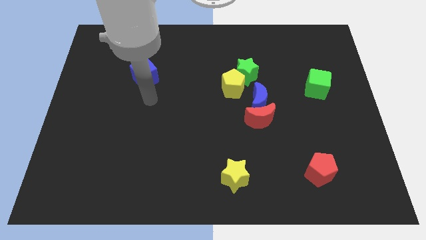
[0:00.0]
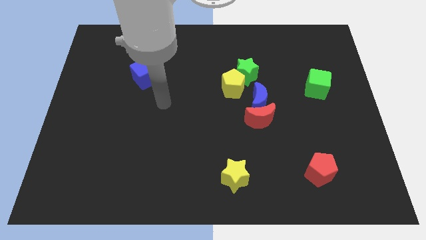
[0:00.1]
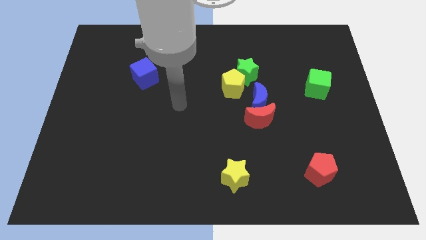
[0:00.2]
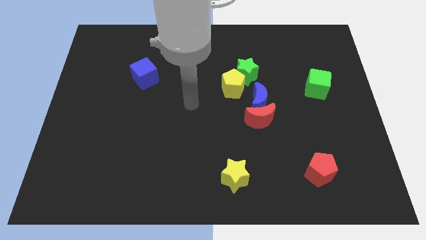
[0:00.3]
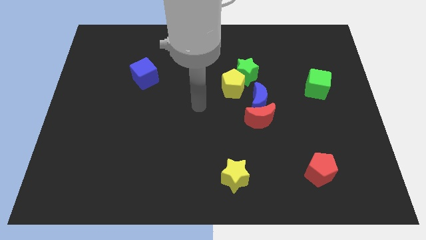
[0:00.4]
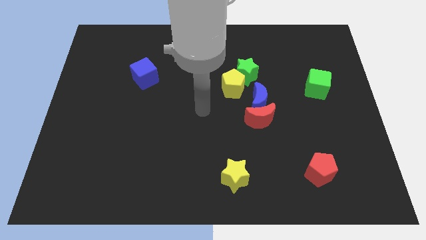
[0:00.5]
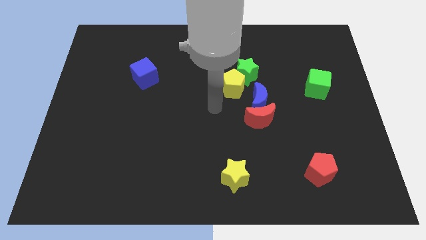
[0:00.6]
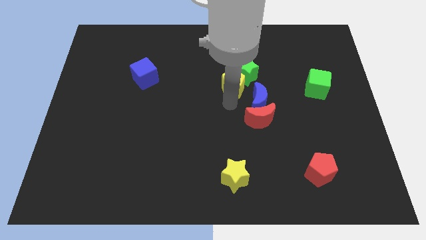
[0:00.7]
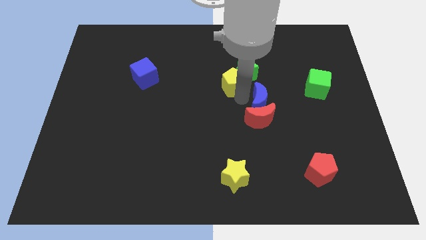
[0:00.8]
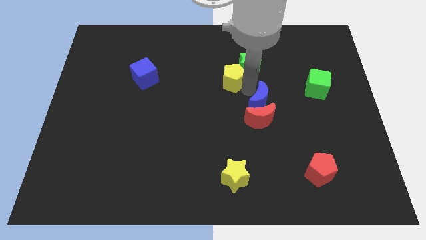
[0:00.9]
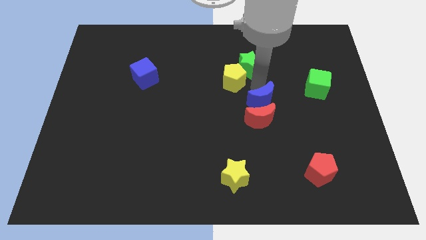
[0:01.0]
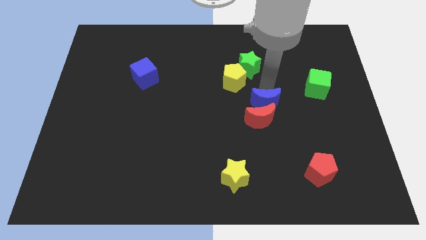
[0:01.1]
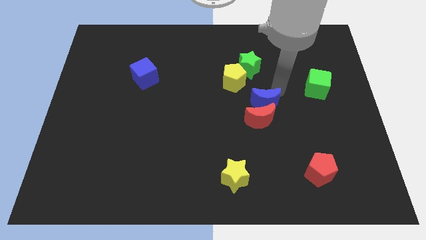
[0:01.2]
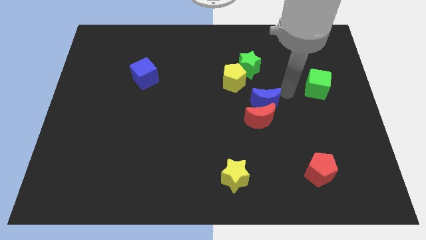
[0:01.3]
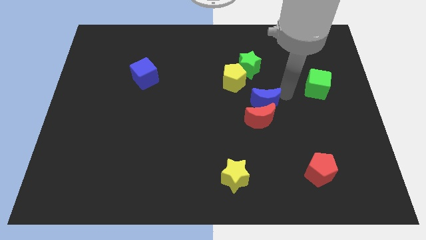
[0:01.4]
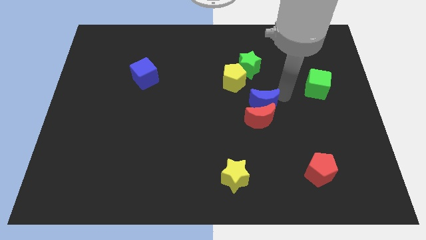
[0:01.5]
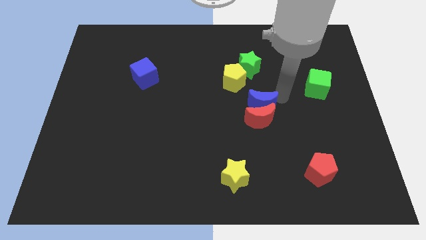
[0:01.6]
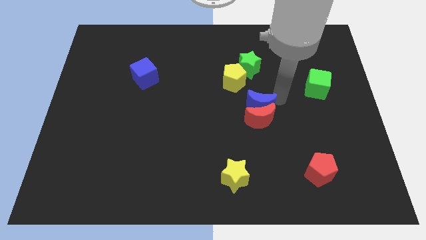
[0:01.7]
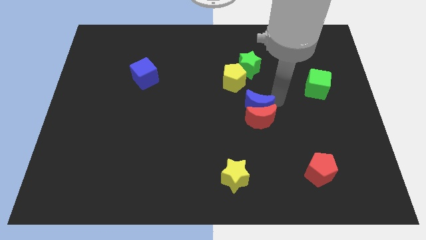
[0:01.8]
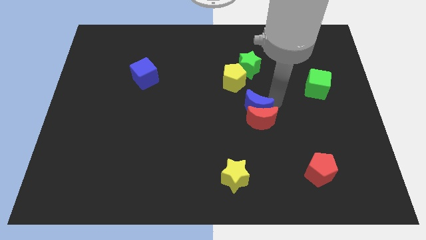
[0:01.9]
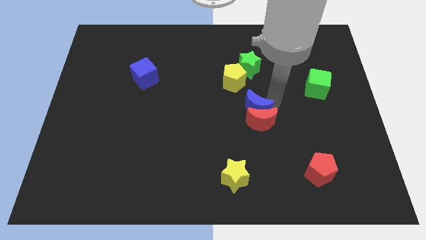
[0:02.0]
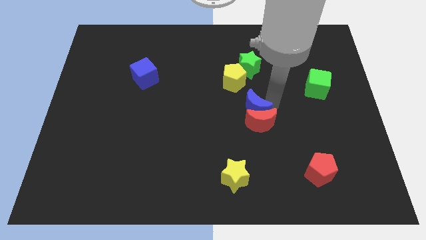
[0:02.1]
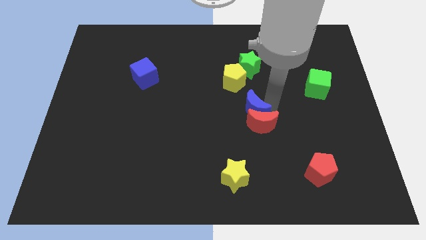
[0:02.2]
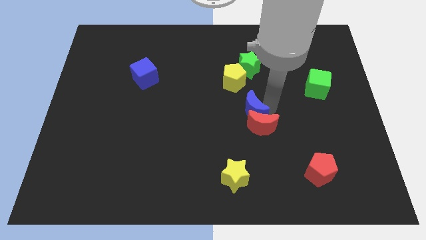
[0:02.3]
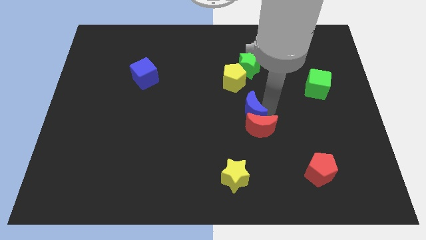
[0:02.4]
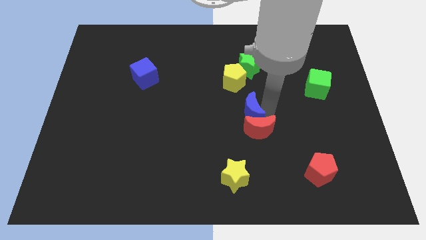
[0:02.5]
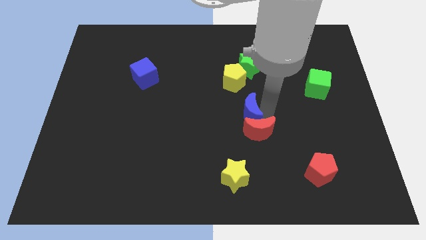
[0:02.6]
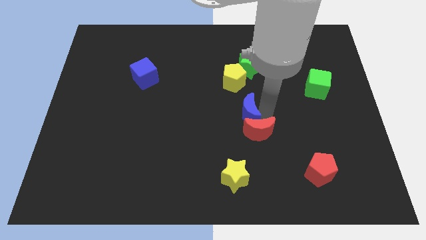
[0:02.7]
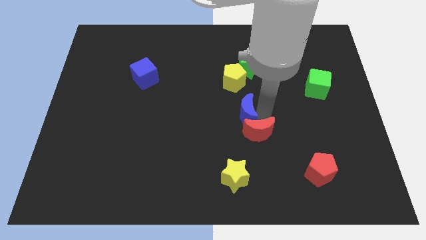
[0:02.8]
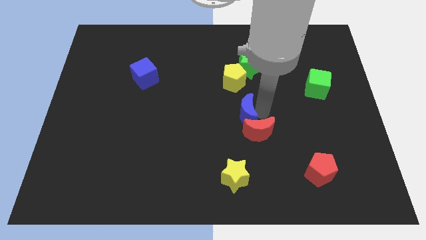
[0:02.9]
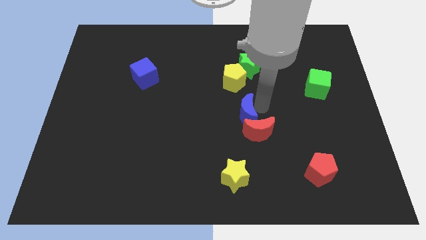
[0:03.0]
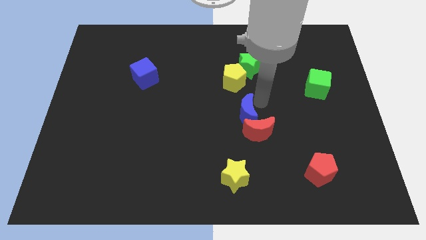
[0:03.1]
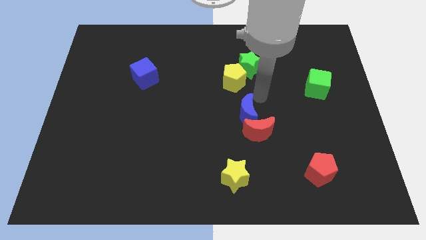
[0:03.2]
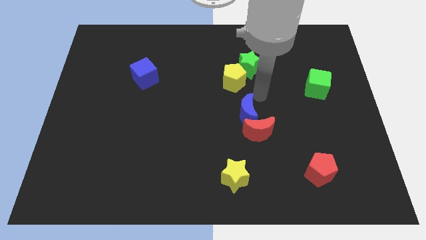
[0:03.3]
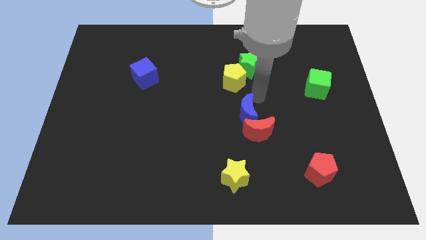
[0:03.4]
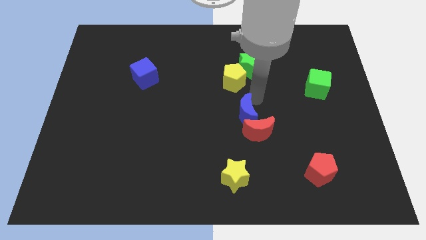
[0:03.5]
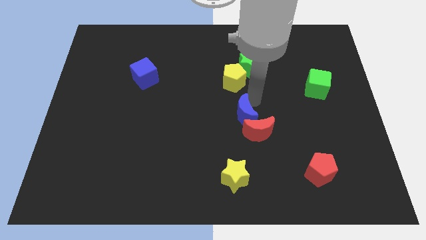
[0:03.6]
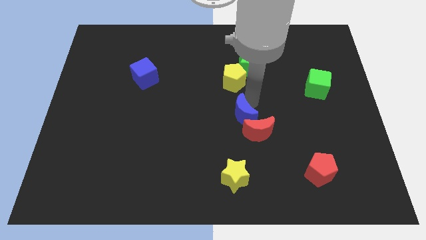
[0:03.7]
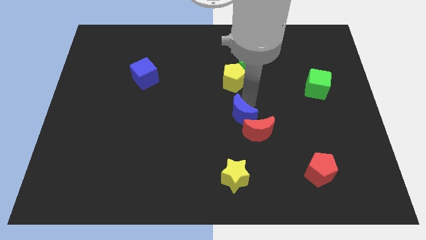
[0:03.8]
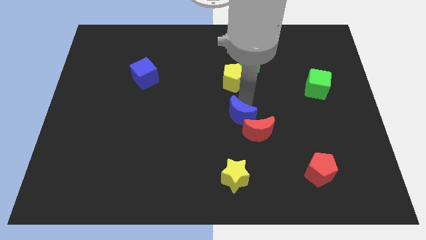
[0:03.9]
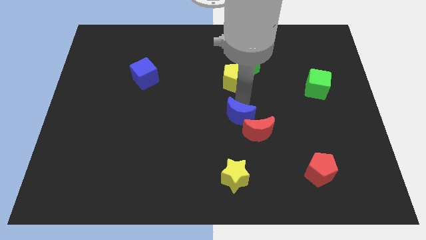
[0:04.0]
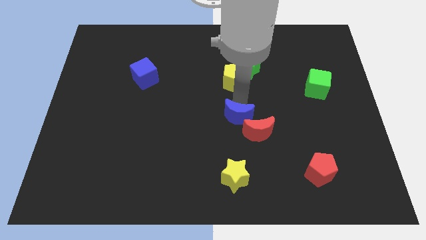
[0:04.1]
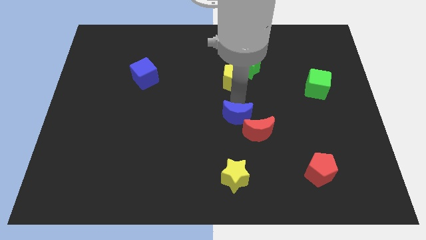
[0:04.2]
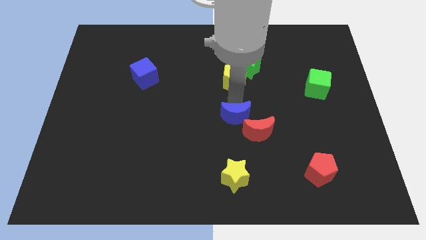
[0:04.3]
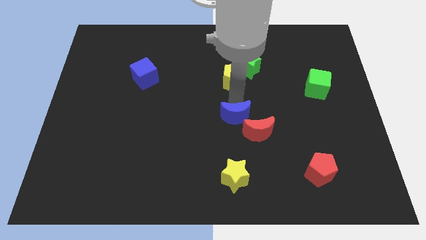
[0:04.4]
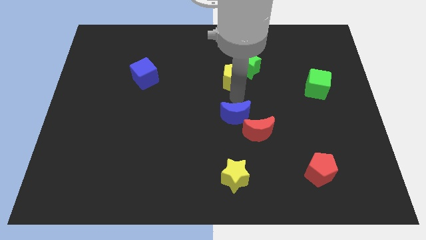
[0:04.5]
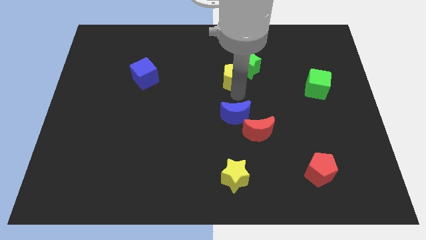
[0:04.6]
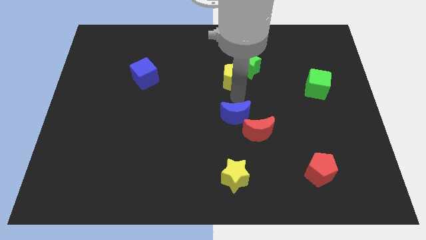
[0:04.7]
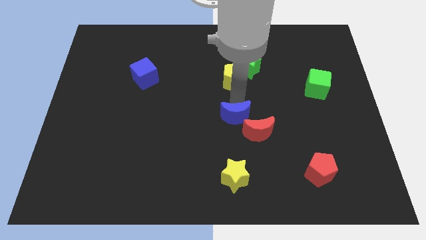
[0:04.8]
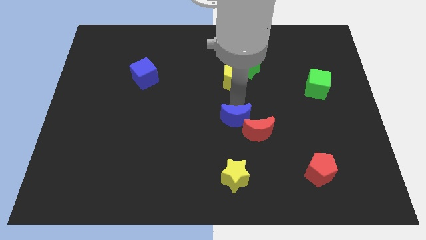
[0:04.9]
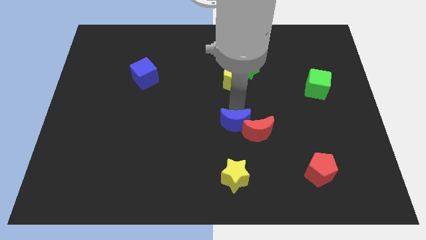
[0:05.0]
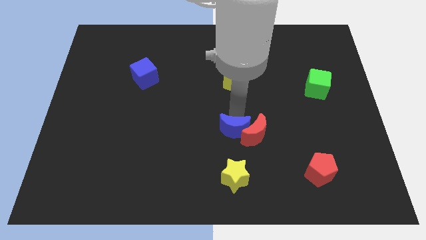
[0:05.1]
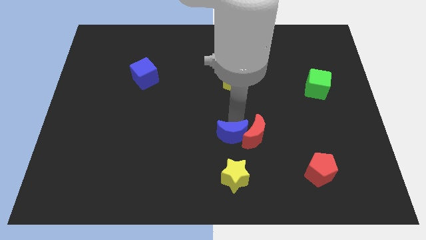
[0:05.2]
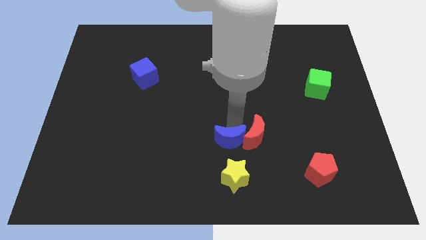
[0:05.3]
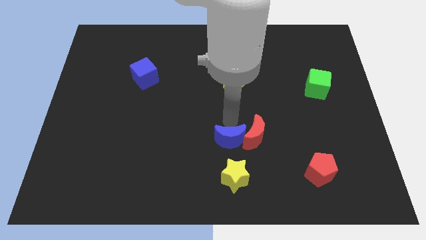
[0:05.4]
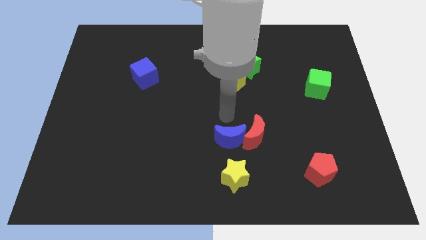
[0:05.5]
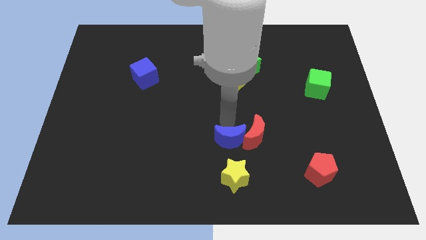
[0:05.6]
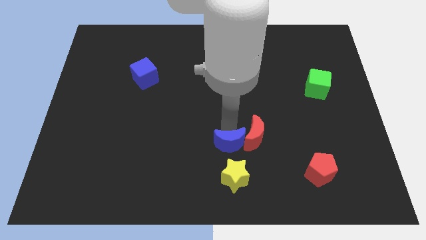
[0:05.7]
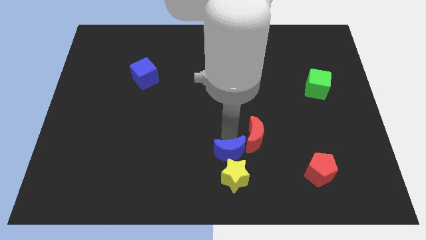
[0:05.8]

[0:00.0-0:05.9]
put the blue moon next to the yellow star
